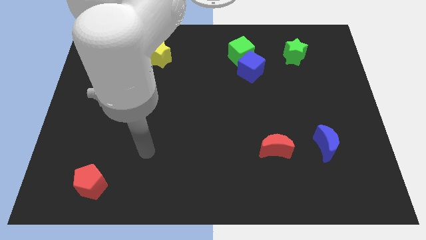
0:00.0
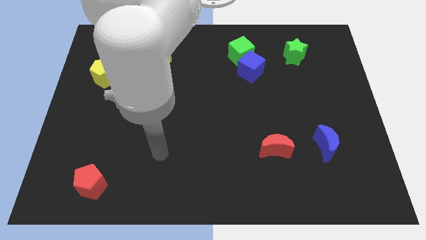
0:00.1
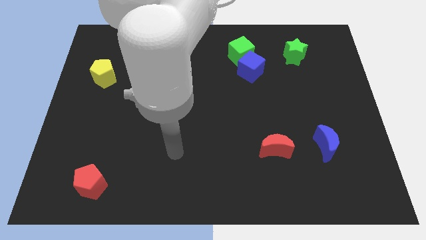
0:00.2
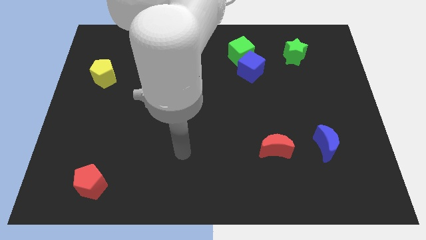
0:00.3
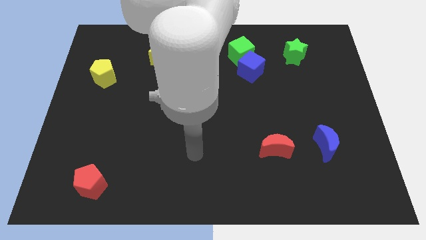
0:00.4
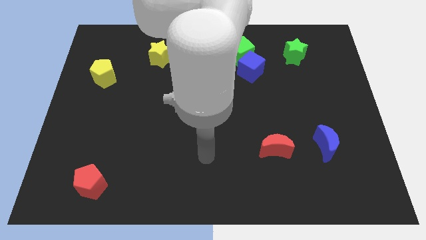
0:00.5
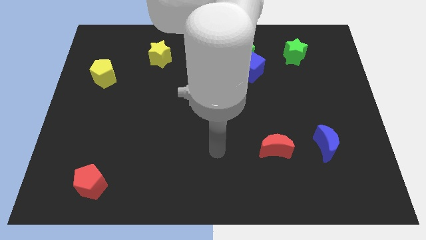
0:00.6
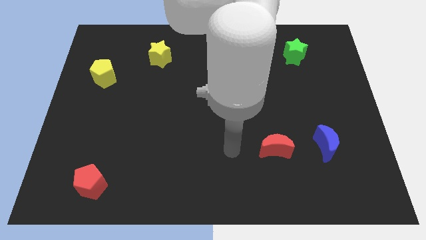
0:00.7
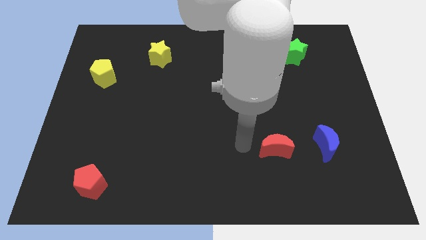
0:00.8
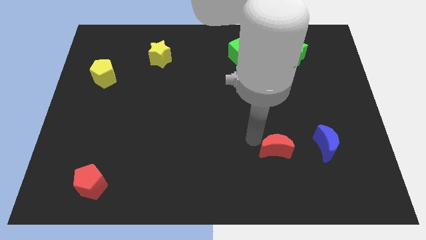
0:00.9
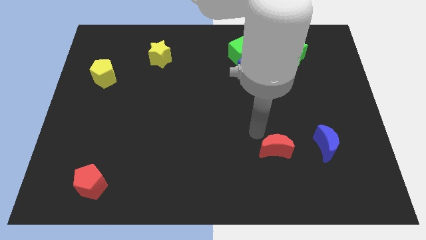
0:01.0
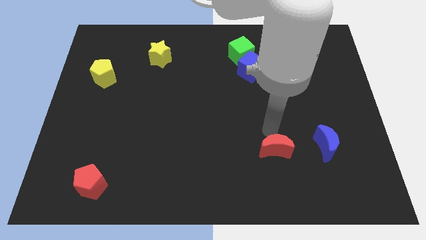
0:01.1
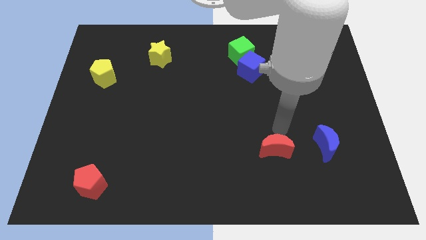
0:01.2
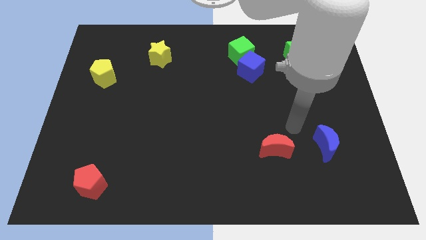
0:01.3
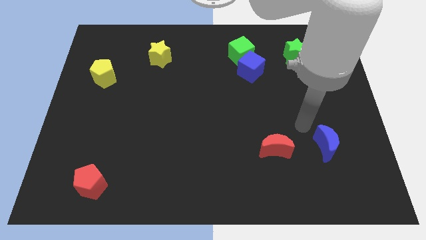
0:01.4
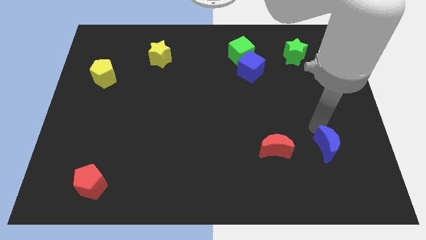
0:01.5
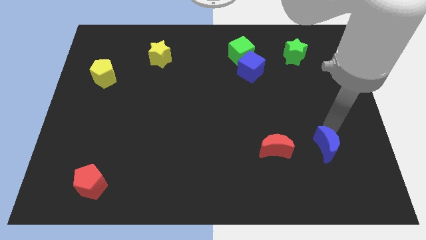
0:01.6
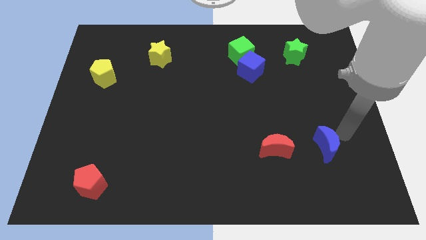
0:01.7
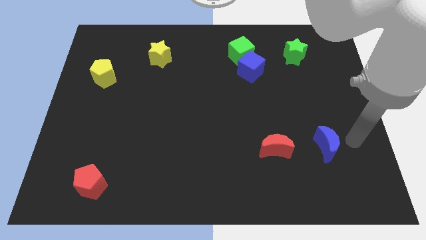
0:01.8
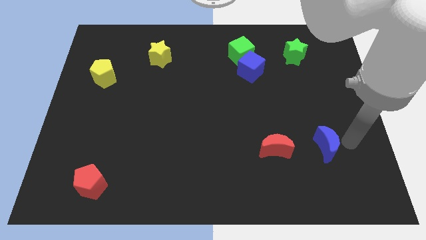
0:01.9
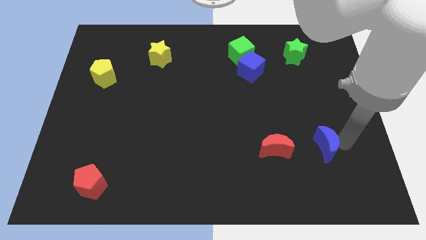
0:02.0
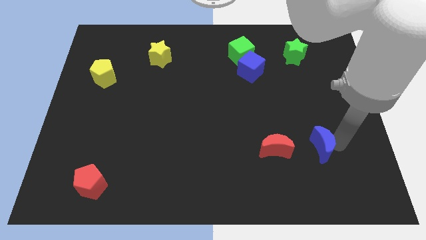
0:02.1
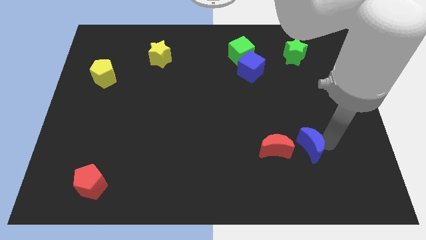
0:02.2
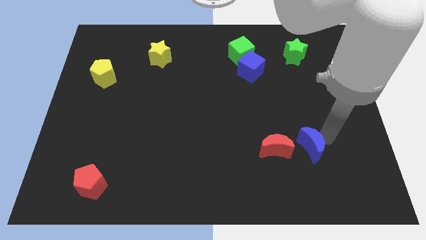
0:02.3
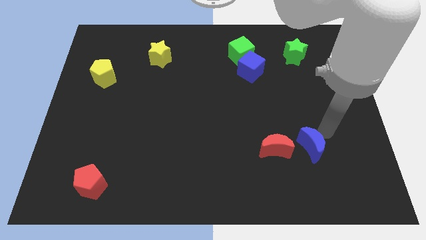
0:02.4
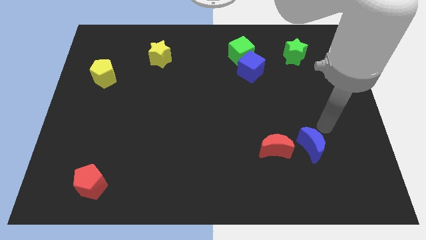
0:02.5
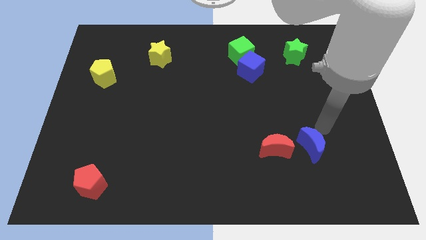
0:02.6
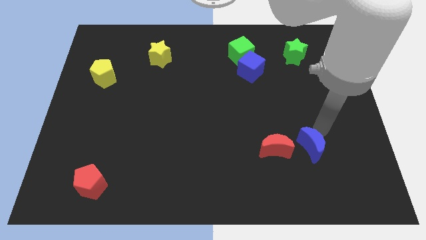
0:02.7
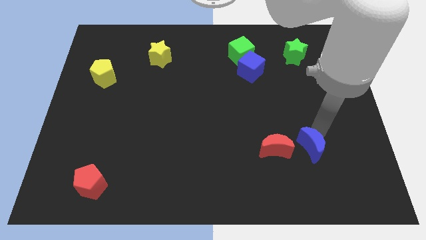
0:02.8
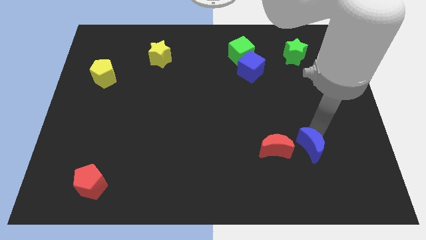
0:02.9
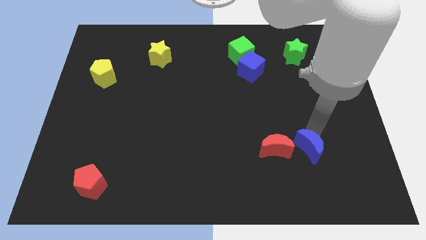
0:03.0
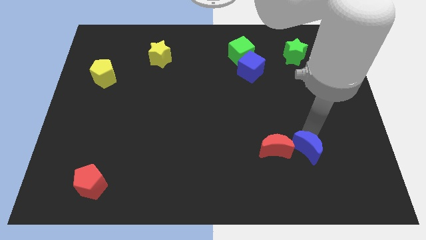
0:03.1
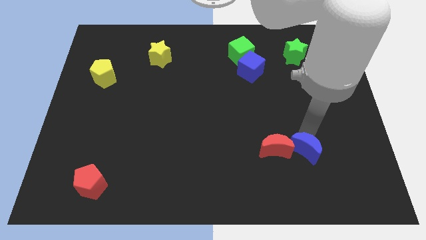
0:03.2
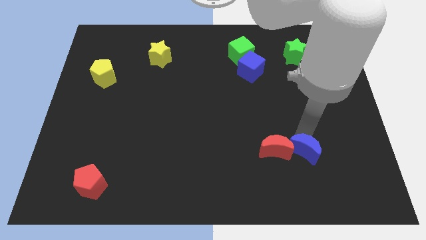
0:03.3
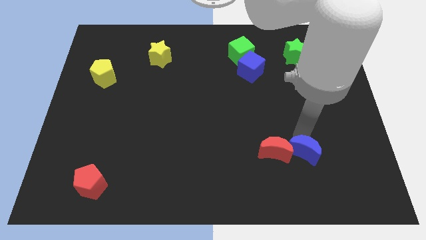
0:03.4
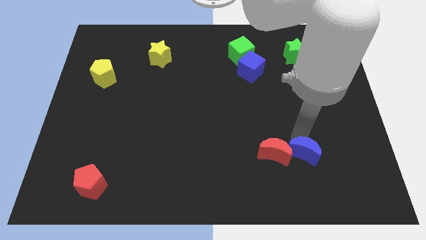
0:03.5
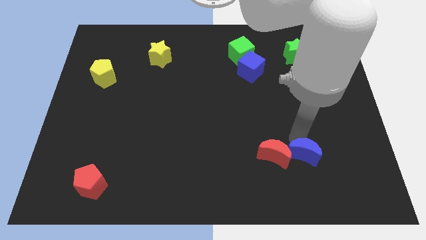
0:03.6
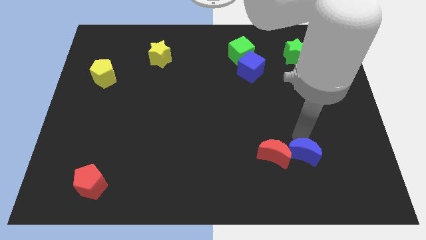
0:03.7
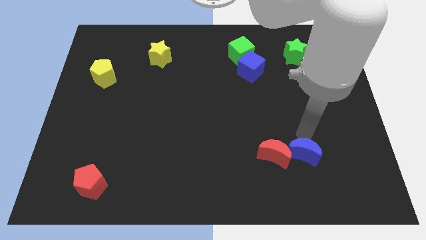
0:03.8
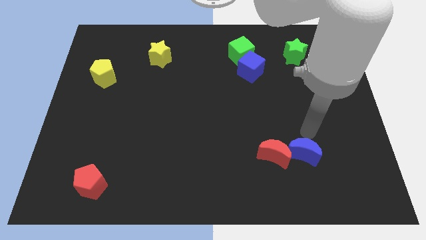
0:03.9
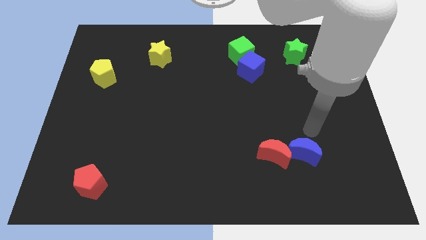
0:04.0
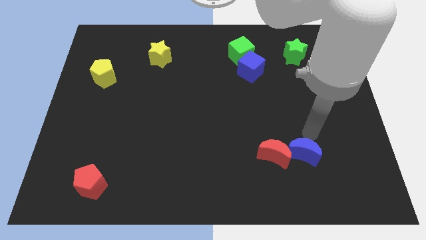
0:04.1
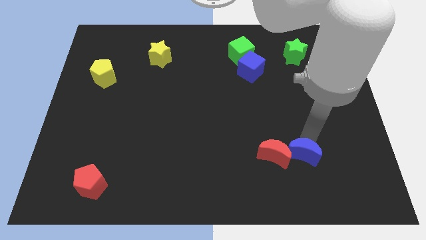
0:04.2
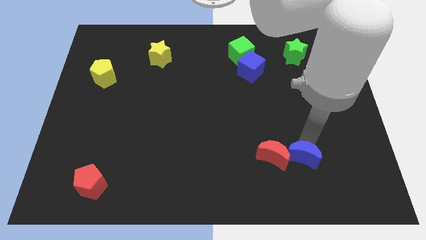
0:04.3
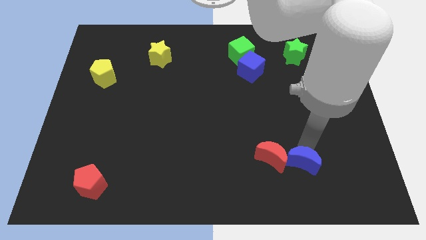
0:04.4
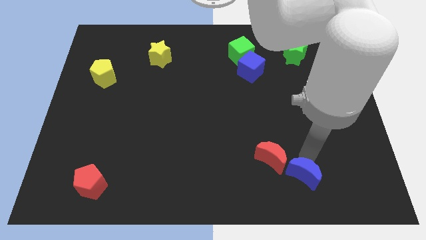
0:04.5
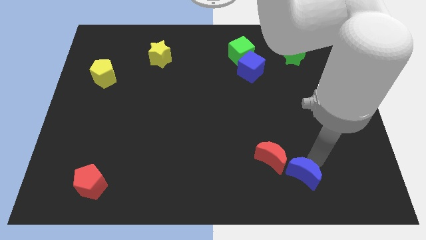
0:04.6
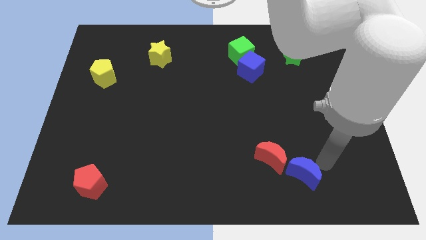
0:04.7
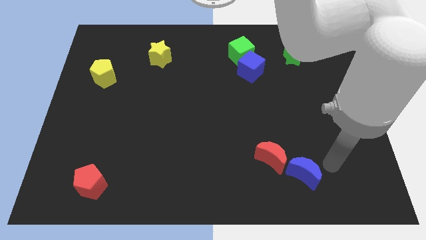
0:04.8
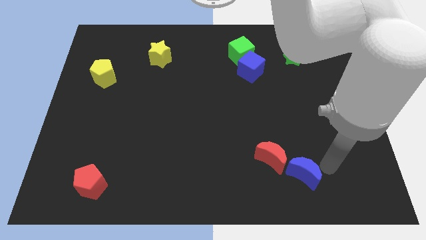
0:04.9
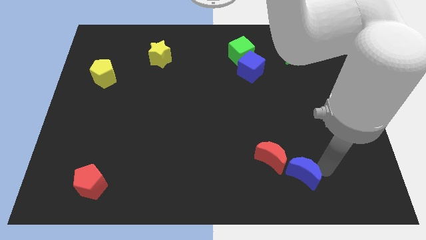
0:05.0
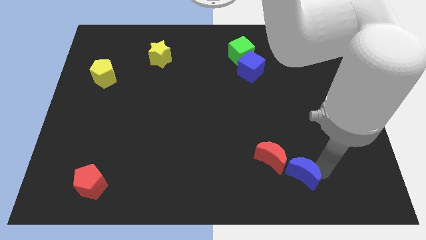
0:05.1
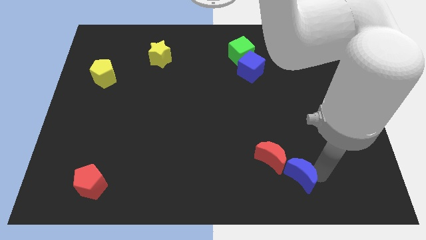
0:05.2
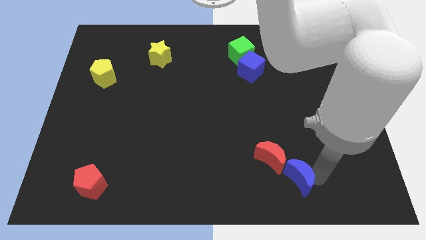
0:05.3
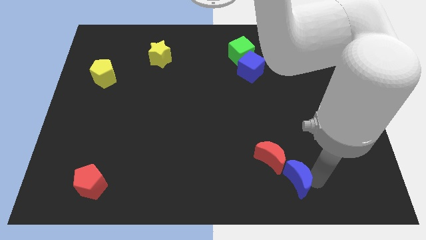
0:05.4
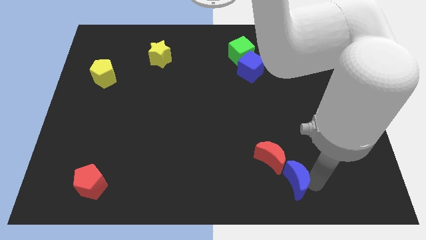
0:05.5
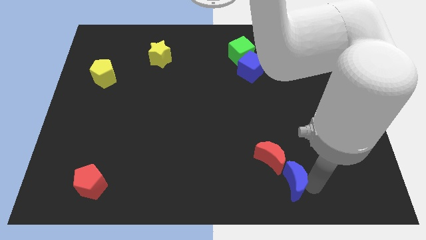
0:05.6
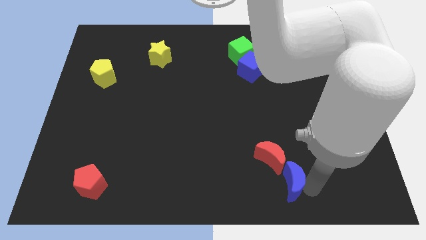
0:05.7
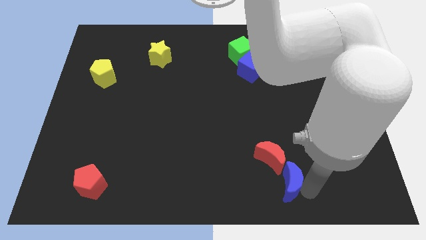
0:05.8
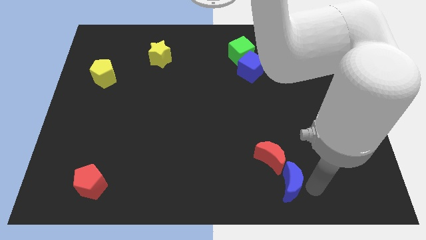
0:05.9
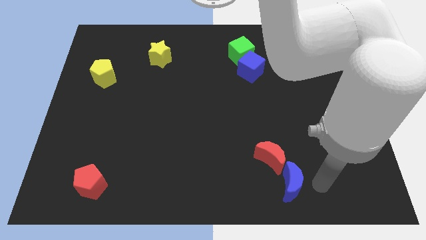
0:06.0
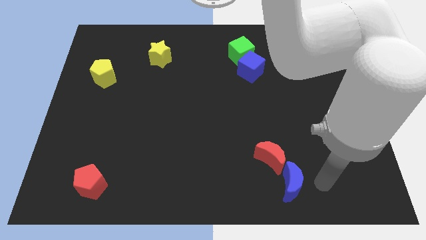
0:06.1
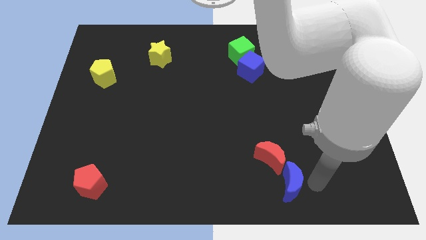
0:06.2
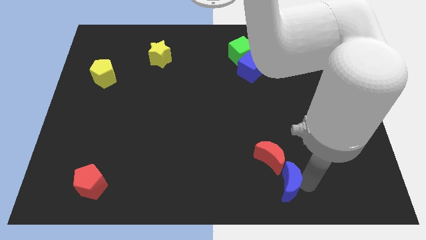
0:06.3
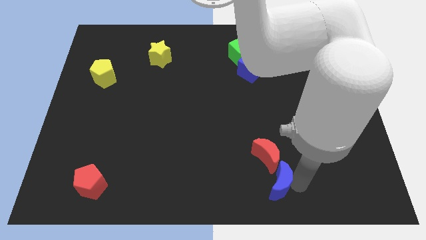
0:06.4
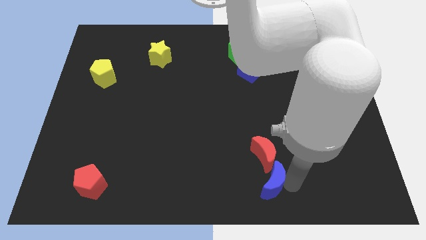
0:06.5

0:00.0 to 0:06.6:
push the blue moon to the bottom side
